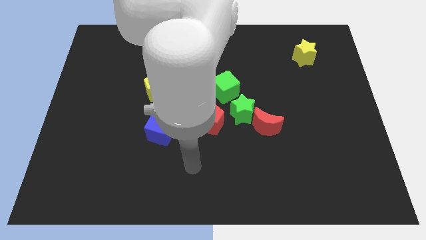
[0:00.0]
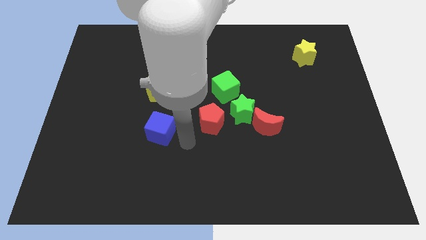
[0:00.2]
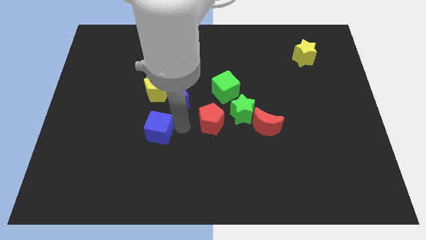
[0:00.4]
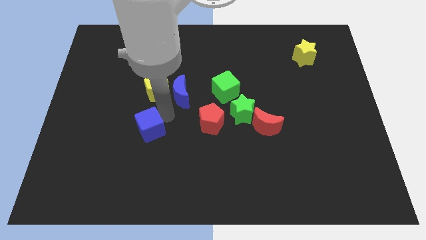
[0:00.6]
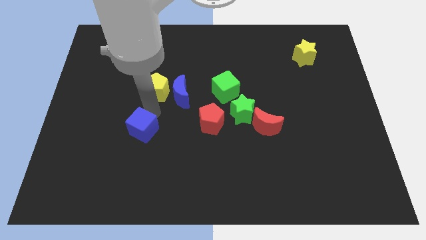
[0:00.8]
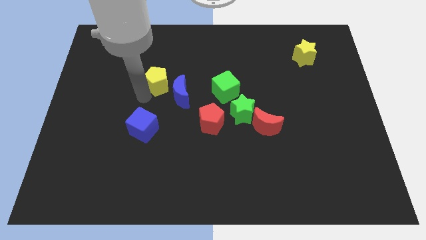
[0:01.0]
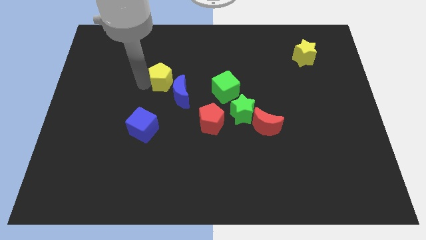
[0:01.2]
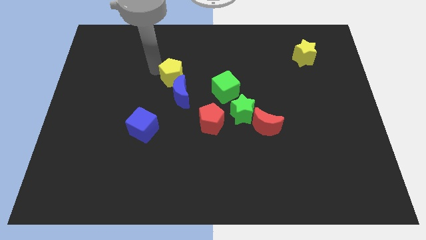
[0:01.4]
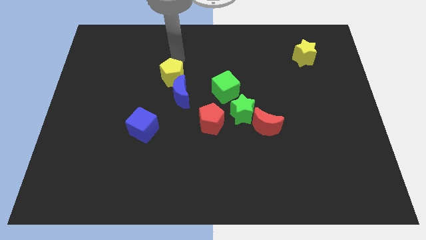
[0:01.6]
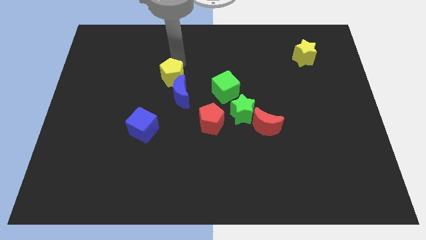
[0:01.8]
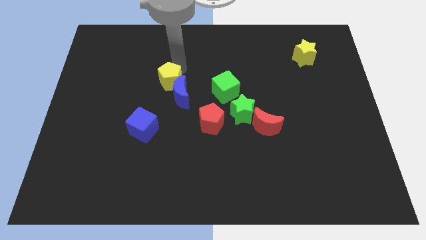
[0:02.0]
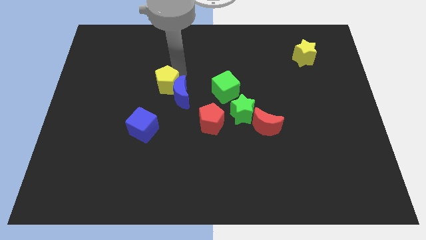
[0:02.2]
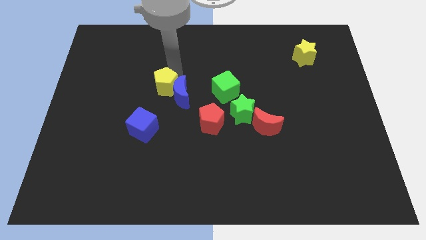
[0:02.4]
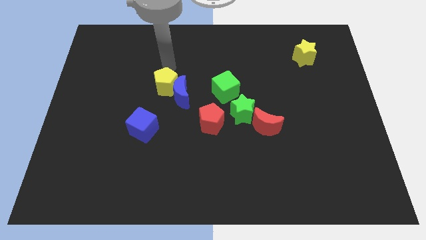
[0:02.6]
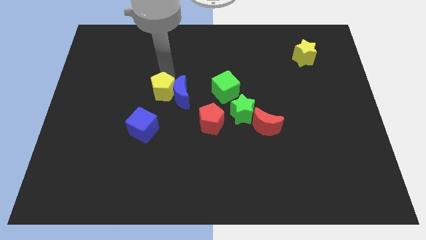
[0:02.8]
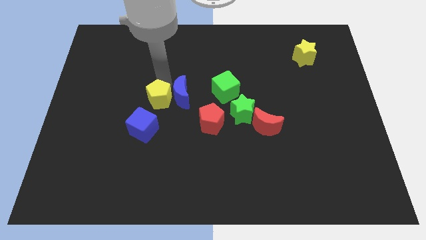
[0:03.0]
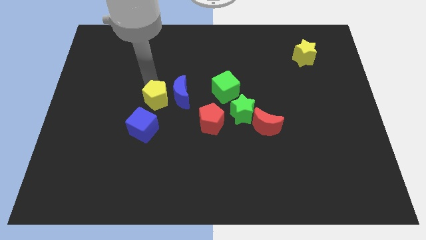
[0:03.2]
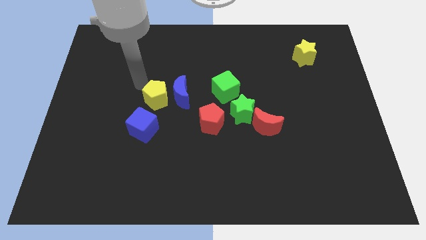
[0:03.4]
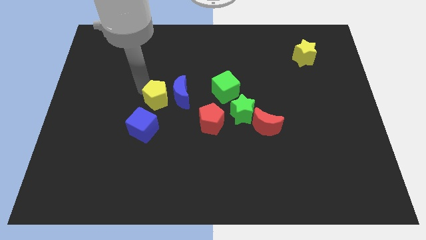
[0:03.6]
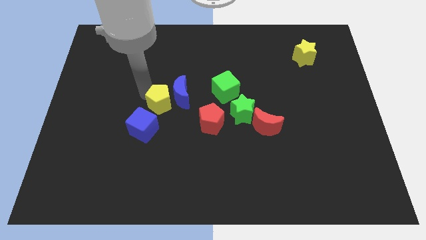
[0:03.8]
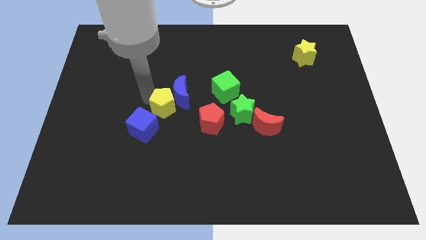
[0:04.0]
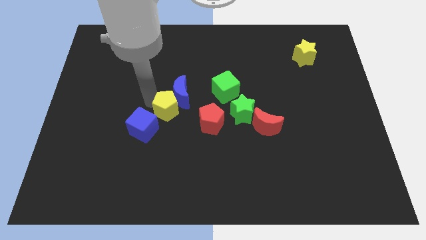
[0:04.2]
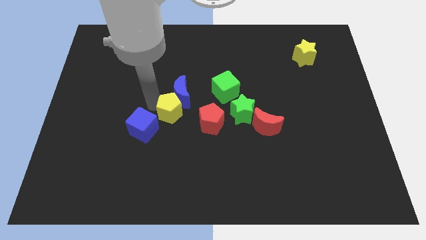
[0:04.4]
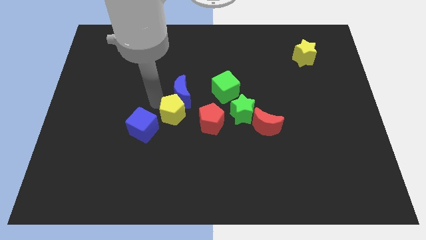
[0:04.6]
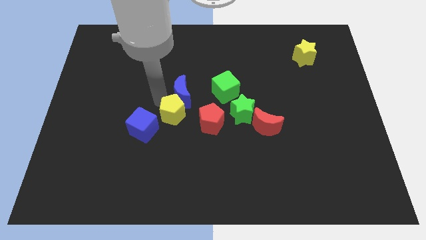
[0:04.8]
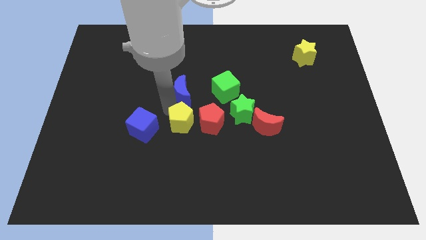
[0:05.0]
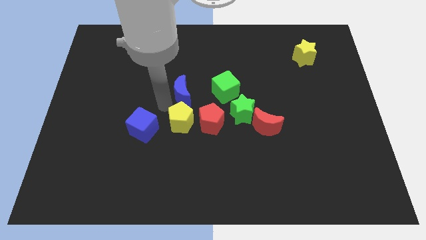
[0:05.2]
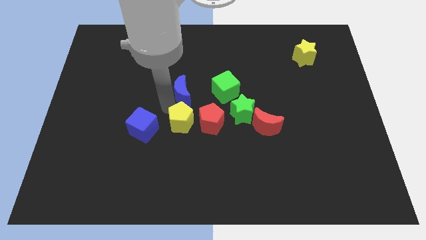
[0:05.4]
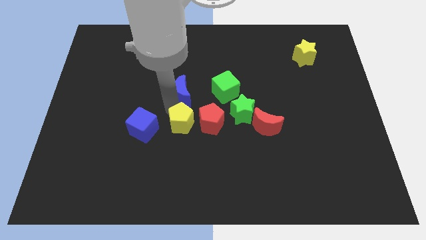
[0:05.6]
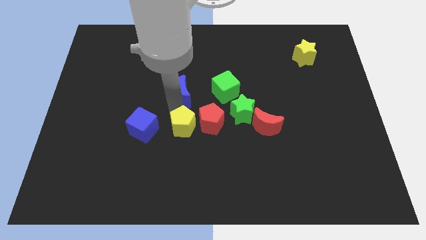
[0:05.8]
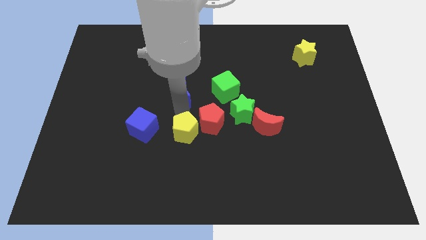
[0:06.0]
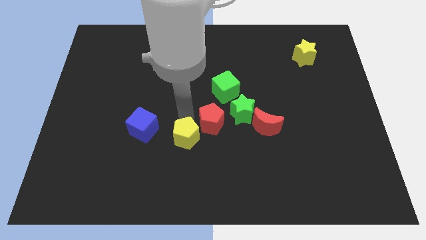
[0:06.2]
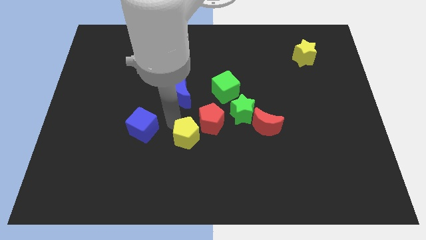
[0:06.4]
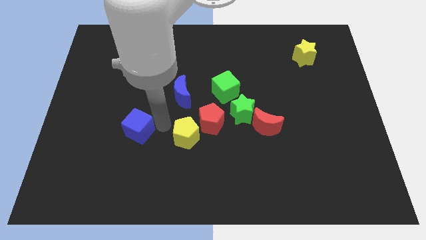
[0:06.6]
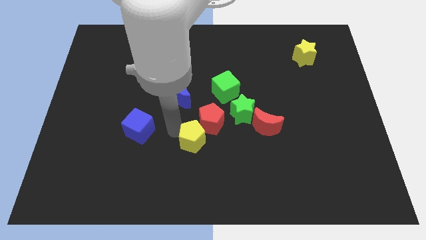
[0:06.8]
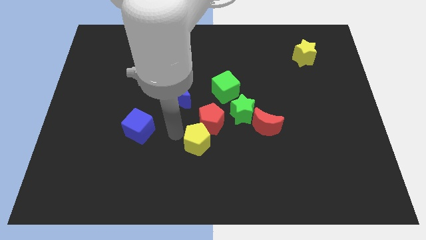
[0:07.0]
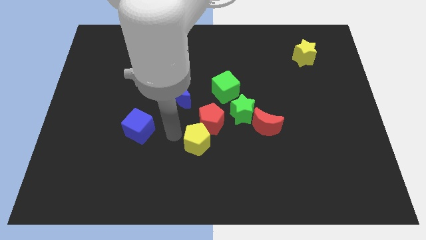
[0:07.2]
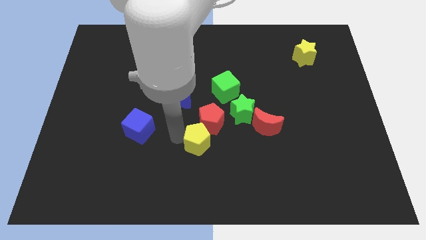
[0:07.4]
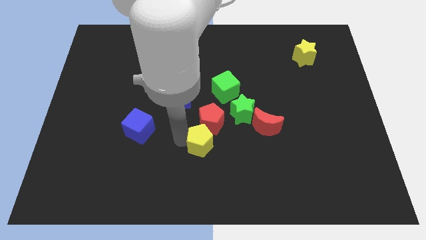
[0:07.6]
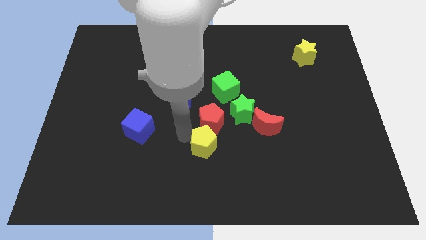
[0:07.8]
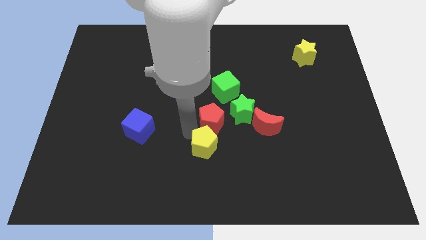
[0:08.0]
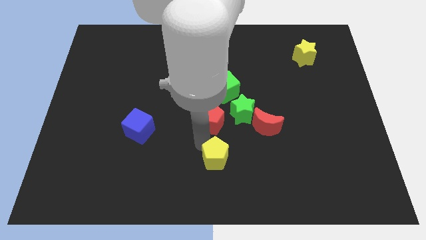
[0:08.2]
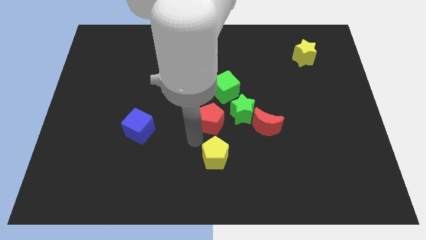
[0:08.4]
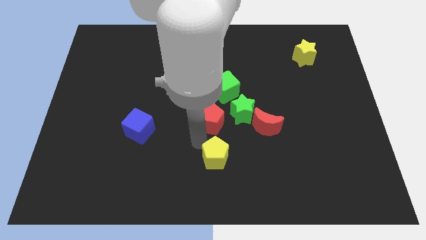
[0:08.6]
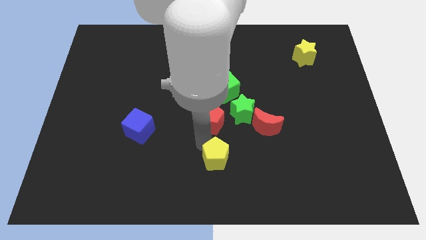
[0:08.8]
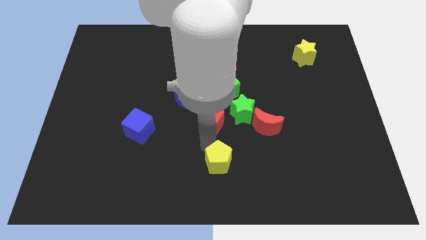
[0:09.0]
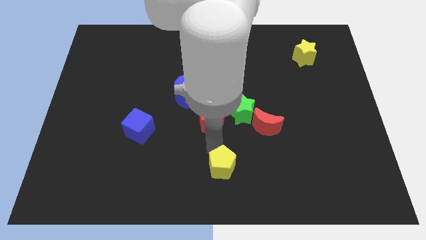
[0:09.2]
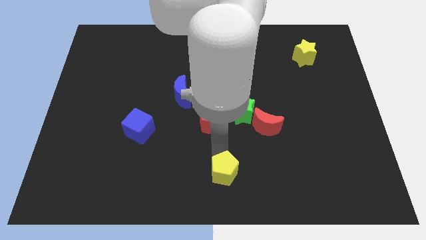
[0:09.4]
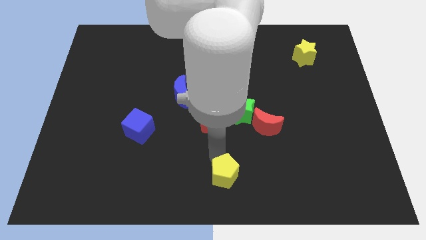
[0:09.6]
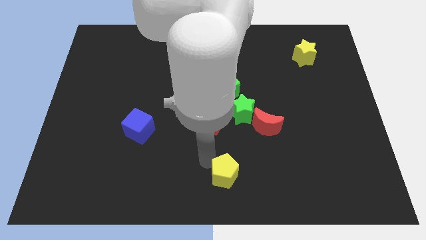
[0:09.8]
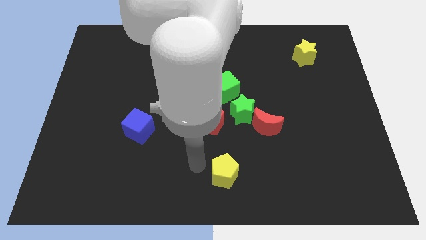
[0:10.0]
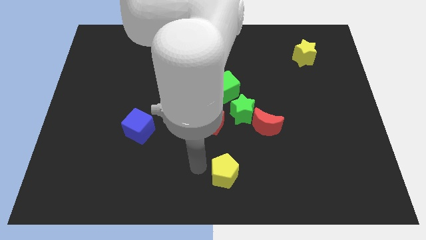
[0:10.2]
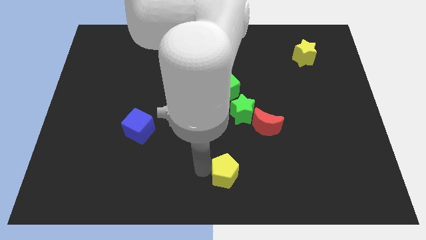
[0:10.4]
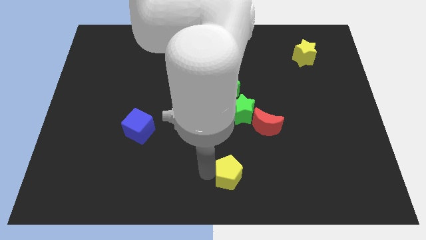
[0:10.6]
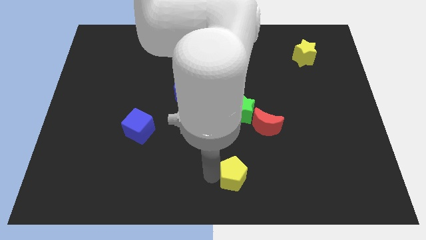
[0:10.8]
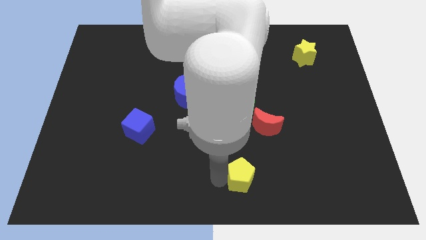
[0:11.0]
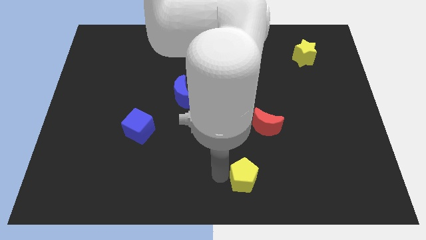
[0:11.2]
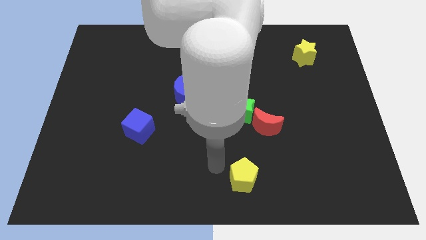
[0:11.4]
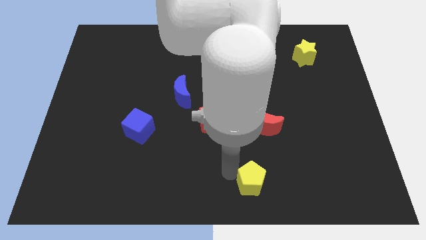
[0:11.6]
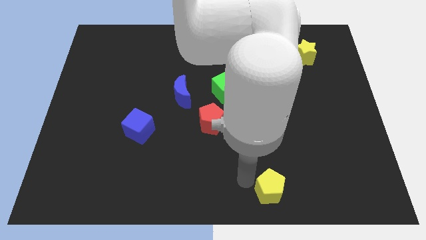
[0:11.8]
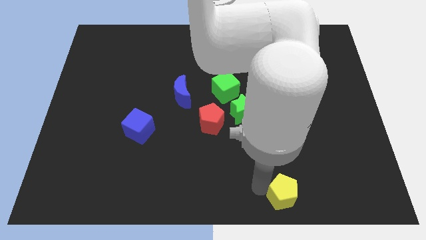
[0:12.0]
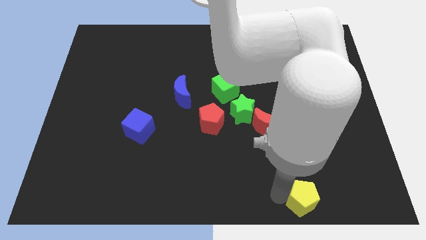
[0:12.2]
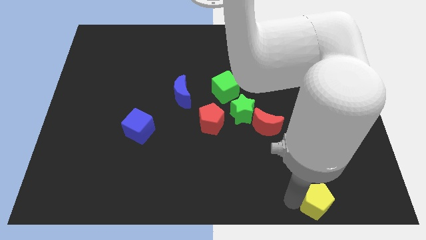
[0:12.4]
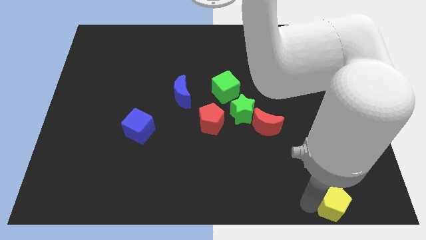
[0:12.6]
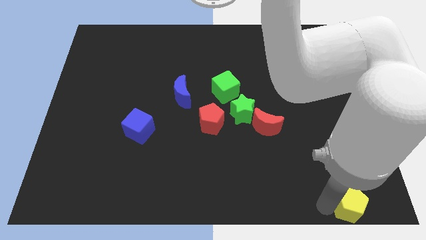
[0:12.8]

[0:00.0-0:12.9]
put the yellow pentagon to the bottom right of the board

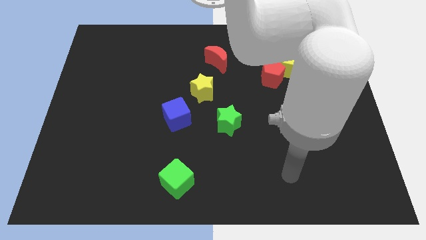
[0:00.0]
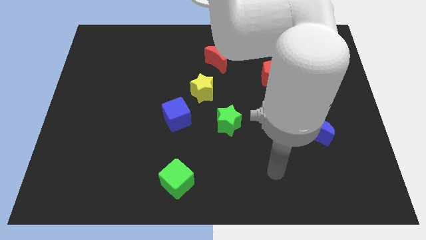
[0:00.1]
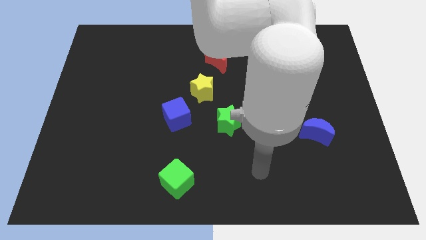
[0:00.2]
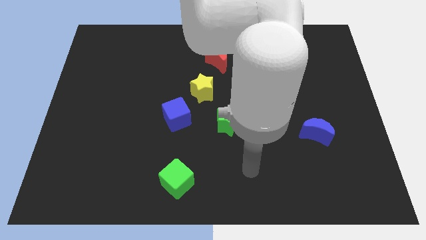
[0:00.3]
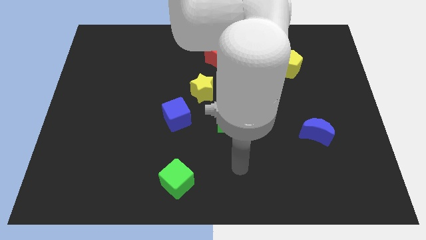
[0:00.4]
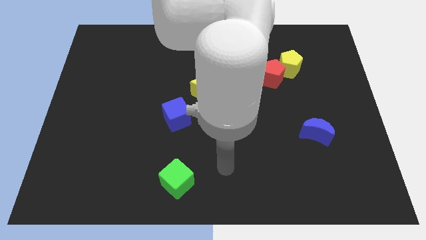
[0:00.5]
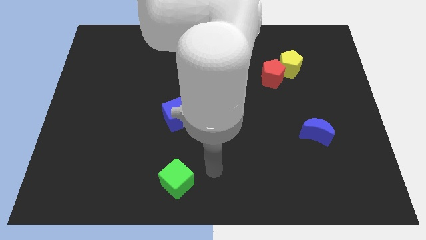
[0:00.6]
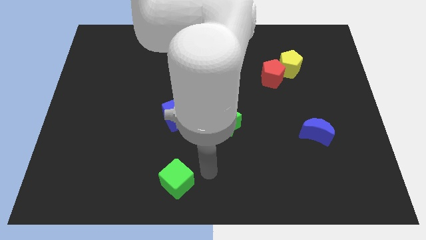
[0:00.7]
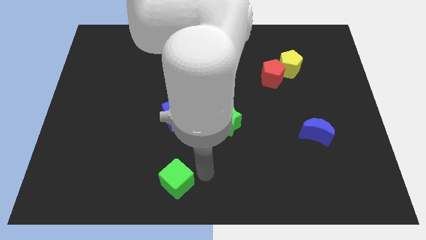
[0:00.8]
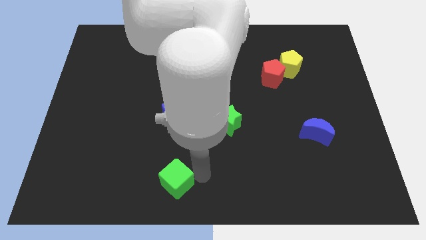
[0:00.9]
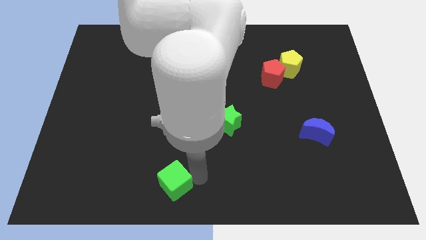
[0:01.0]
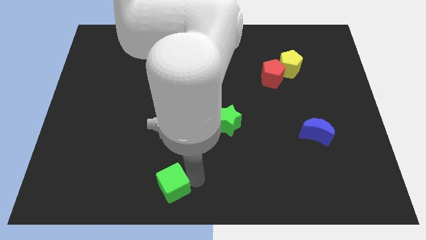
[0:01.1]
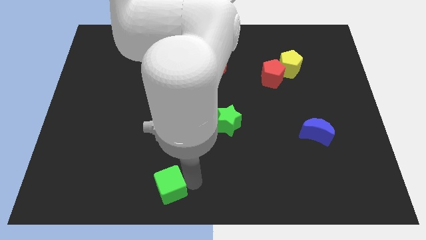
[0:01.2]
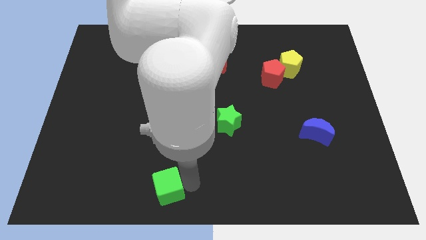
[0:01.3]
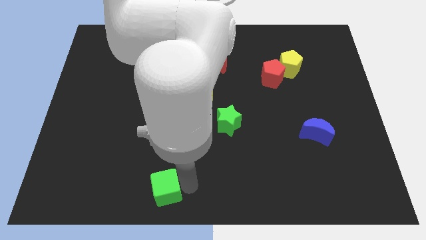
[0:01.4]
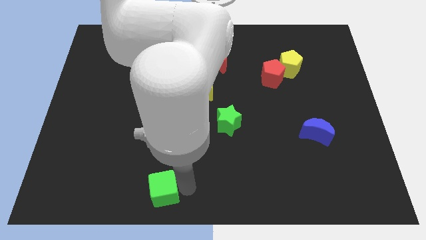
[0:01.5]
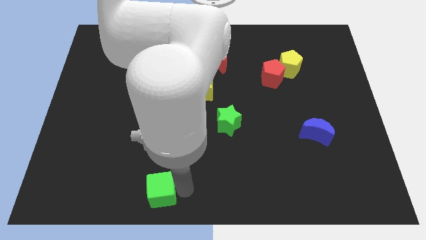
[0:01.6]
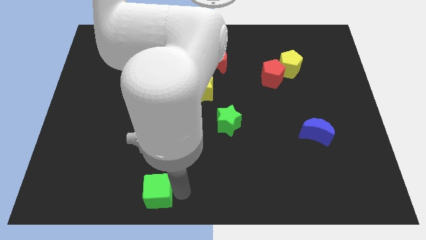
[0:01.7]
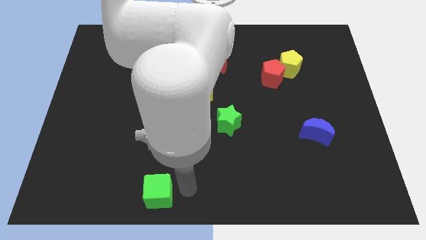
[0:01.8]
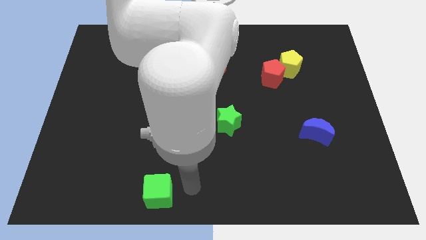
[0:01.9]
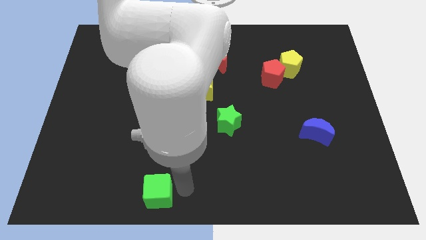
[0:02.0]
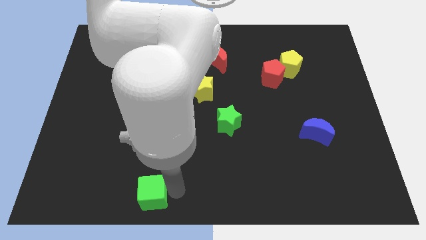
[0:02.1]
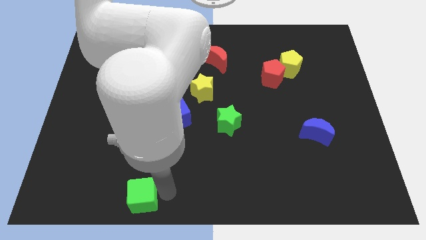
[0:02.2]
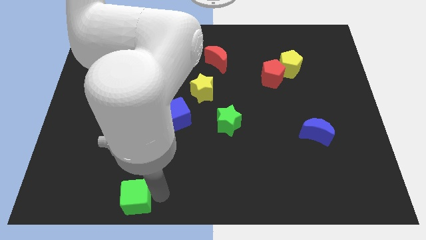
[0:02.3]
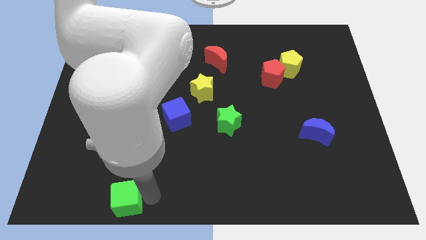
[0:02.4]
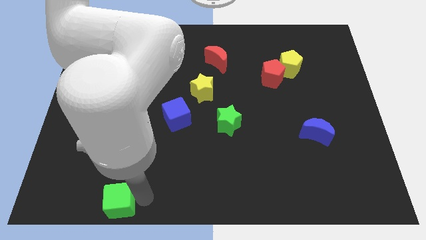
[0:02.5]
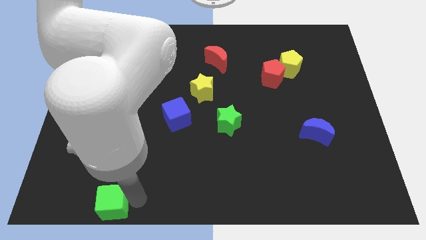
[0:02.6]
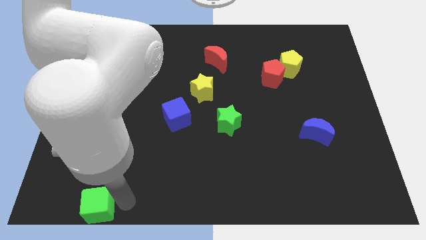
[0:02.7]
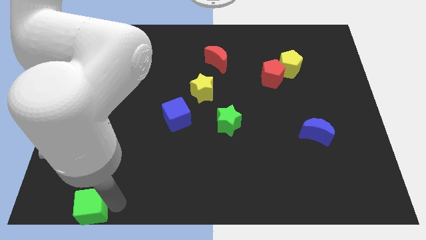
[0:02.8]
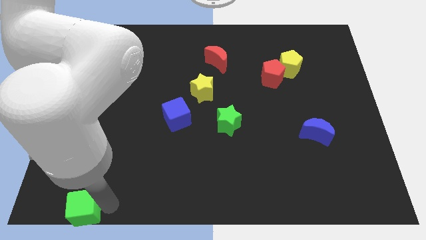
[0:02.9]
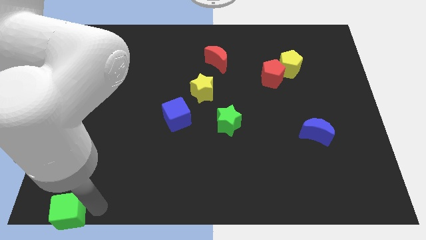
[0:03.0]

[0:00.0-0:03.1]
push the green cube to the bottom left of the board
